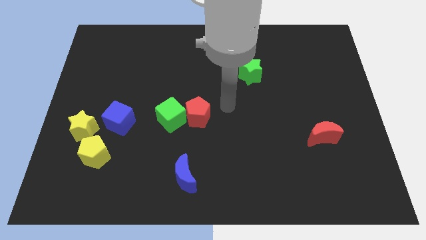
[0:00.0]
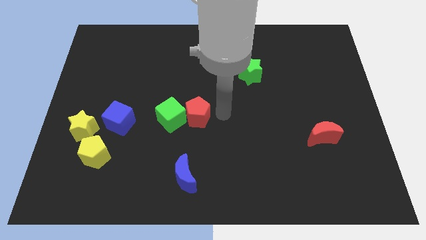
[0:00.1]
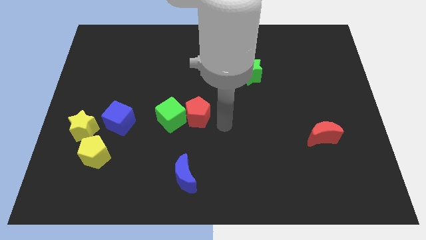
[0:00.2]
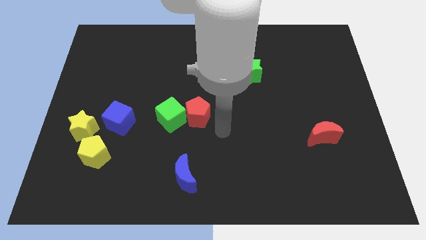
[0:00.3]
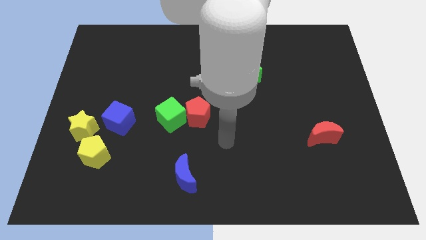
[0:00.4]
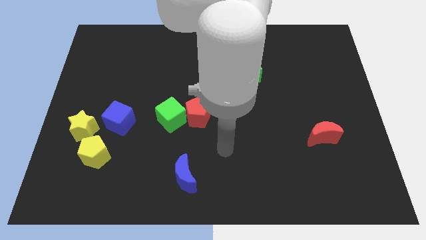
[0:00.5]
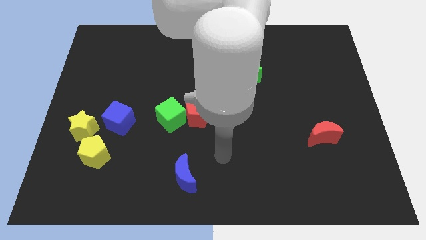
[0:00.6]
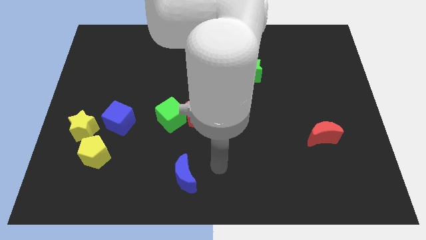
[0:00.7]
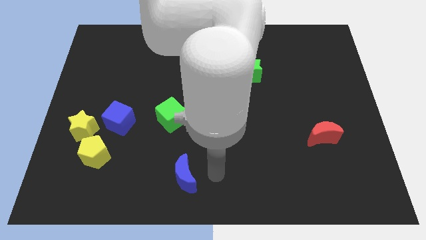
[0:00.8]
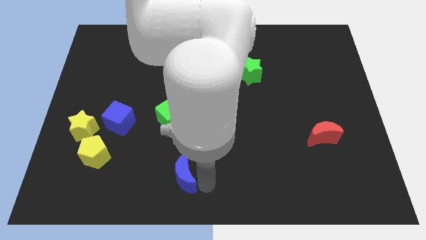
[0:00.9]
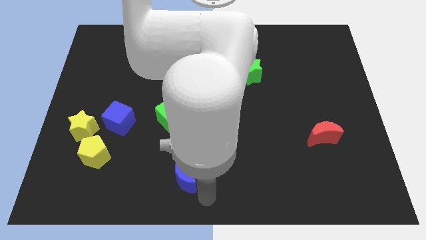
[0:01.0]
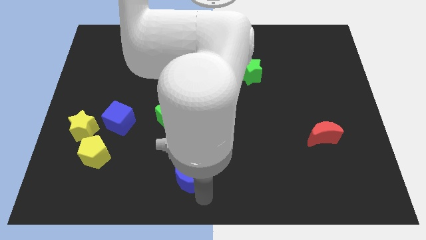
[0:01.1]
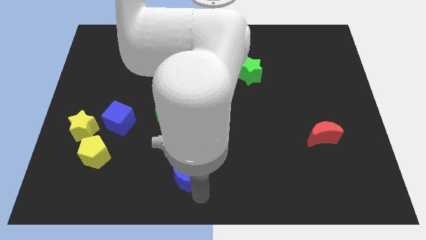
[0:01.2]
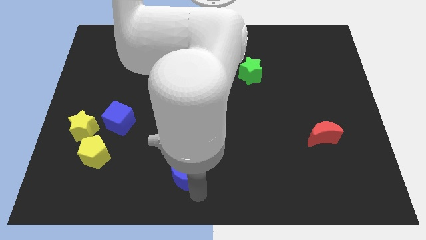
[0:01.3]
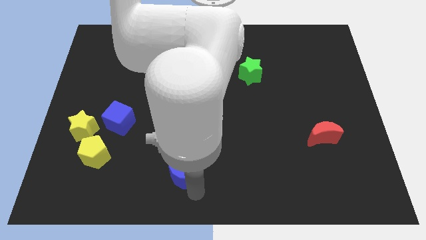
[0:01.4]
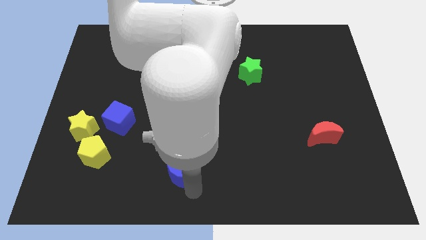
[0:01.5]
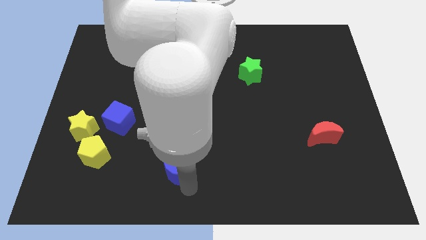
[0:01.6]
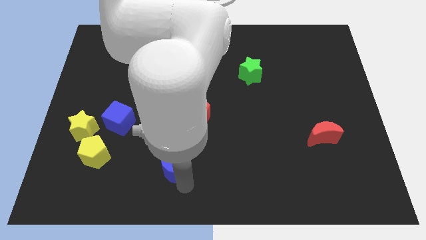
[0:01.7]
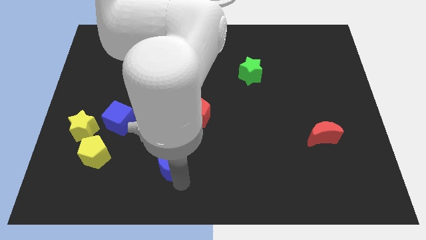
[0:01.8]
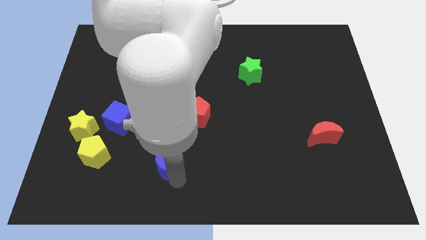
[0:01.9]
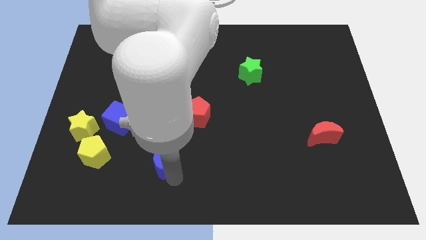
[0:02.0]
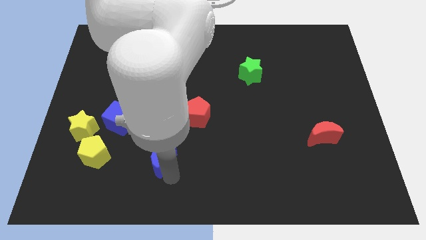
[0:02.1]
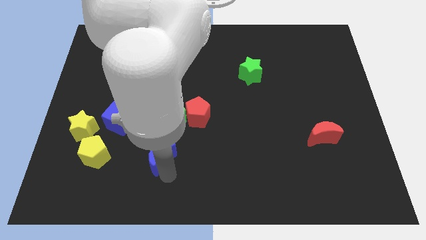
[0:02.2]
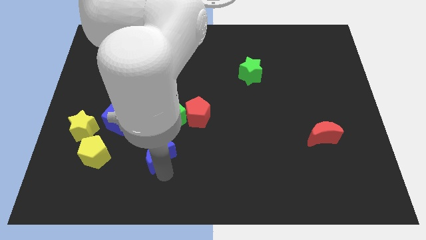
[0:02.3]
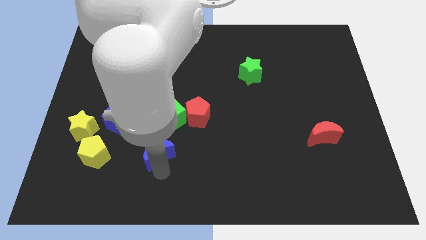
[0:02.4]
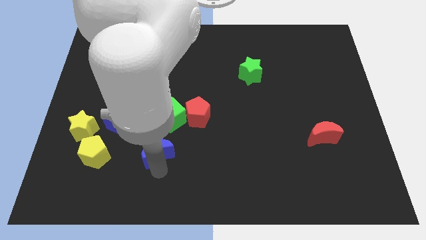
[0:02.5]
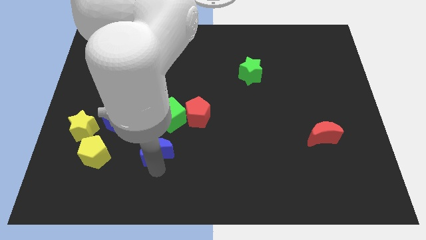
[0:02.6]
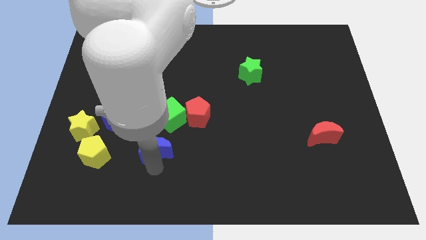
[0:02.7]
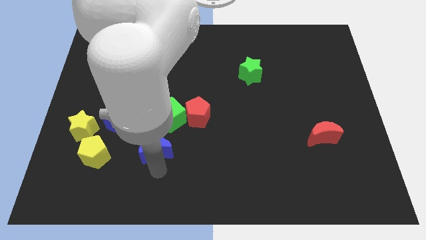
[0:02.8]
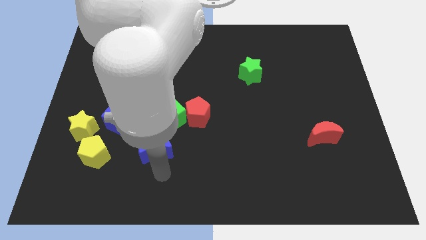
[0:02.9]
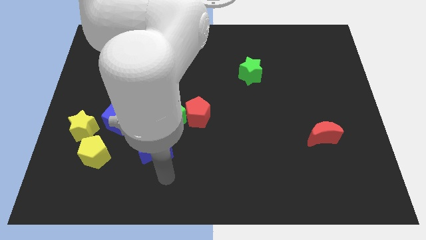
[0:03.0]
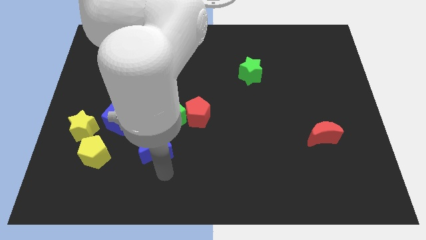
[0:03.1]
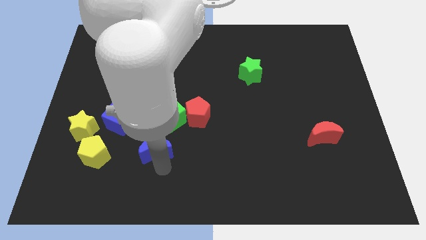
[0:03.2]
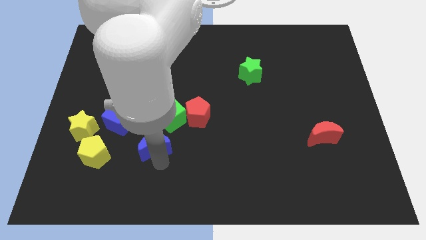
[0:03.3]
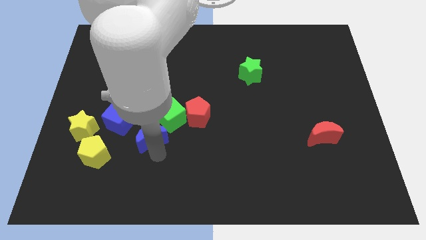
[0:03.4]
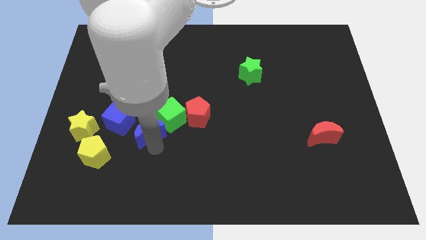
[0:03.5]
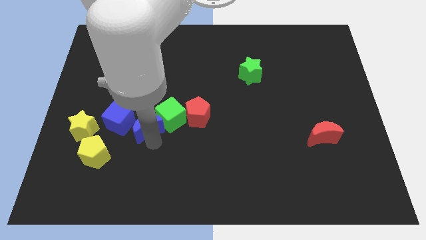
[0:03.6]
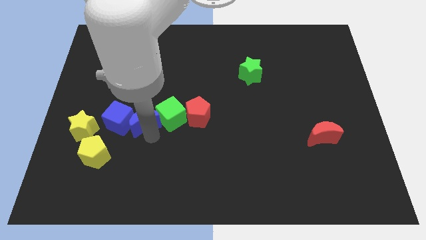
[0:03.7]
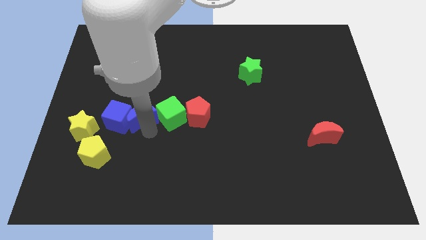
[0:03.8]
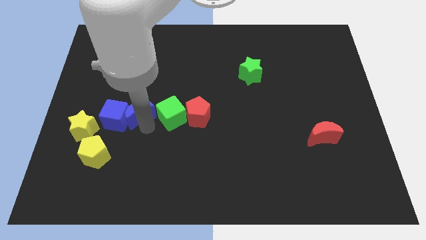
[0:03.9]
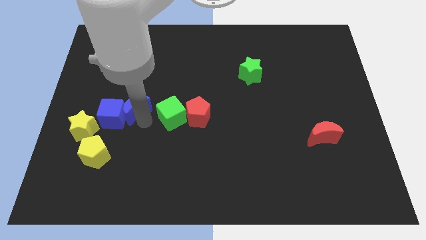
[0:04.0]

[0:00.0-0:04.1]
push the blue moon upwards and then left

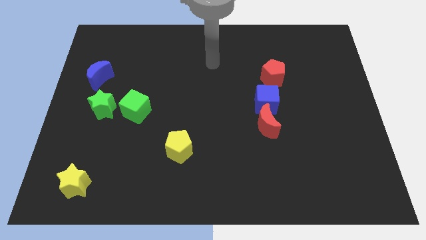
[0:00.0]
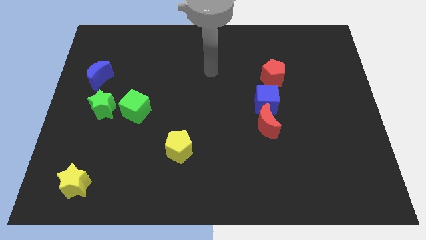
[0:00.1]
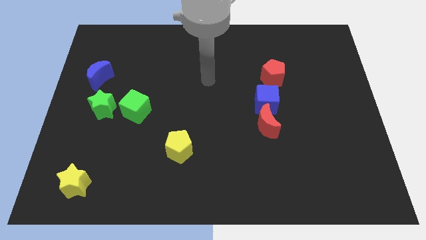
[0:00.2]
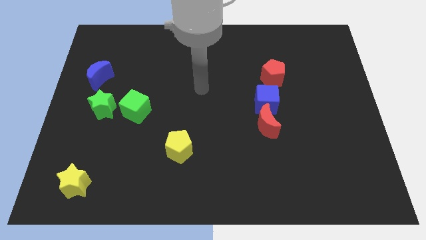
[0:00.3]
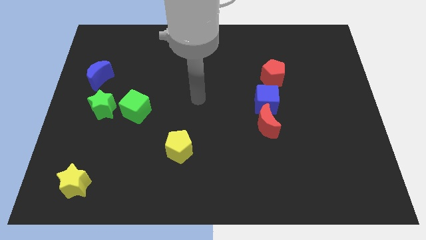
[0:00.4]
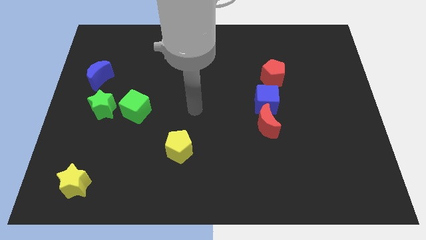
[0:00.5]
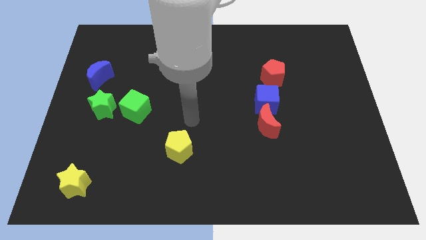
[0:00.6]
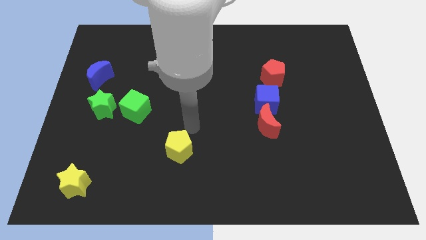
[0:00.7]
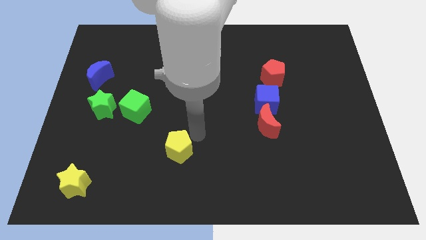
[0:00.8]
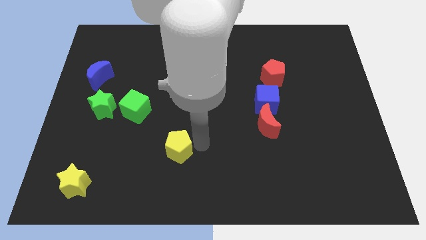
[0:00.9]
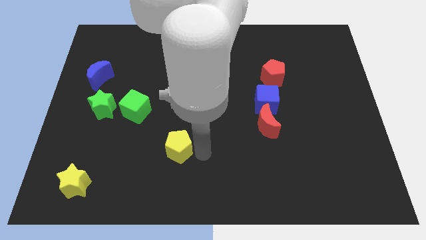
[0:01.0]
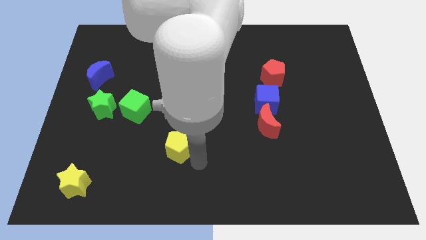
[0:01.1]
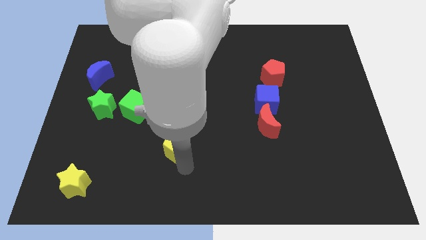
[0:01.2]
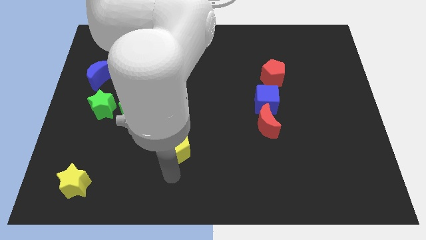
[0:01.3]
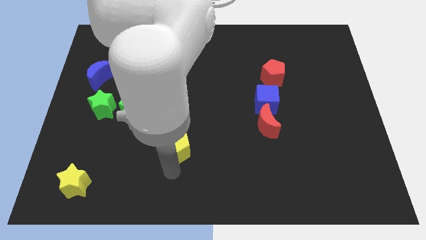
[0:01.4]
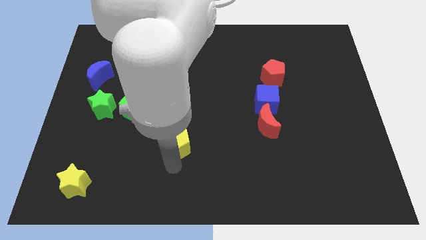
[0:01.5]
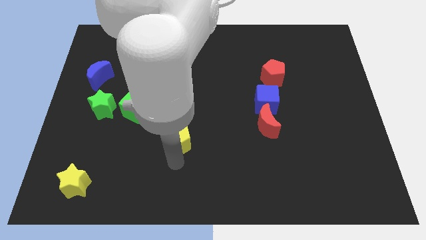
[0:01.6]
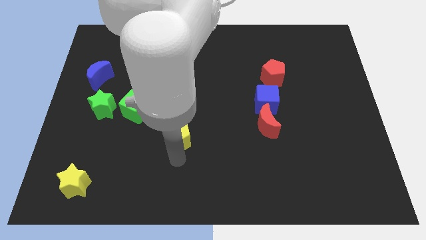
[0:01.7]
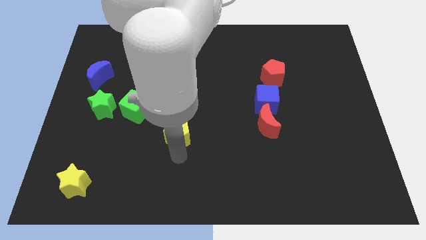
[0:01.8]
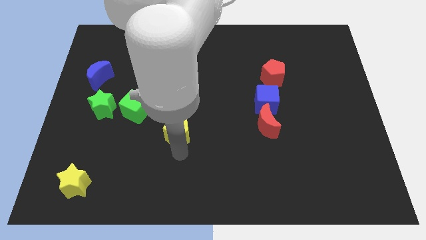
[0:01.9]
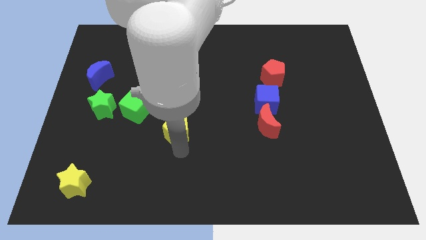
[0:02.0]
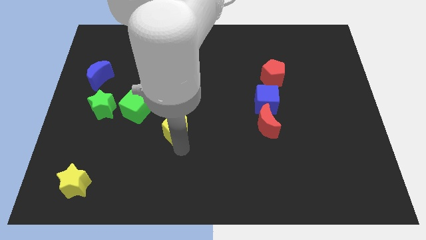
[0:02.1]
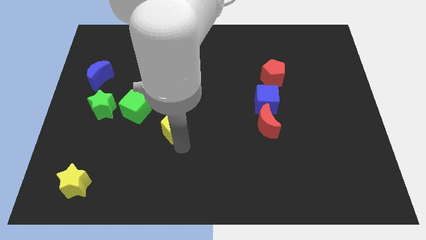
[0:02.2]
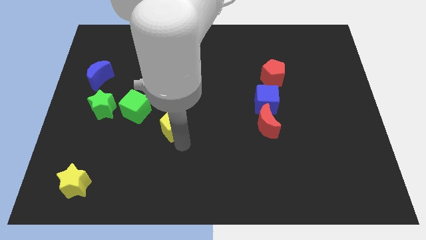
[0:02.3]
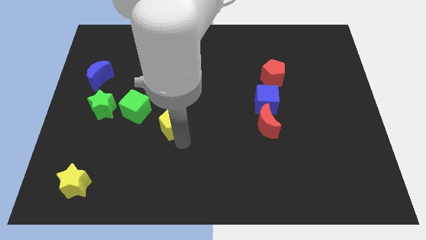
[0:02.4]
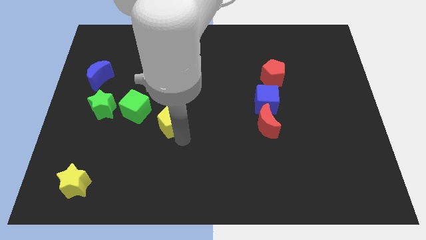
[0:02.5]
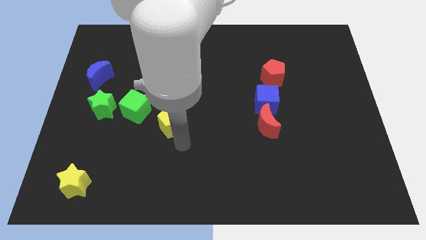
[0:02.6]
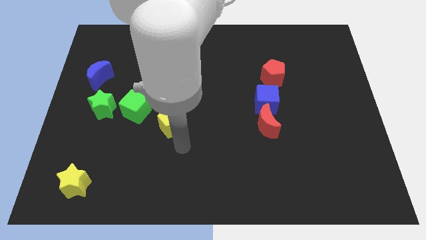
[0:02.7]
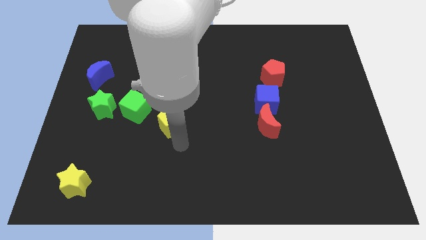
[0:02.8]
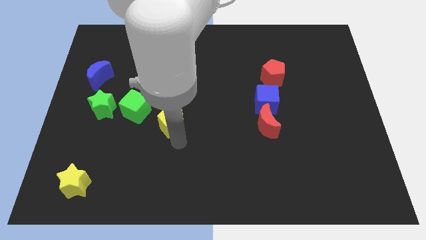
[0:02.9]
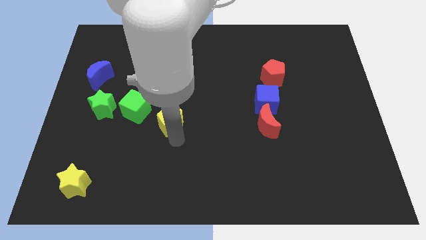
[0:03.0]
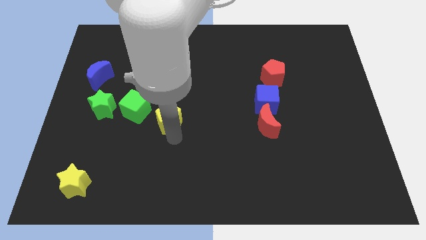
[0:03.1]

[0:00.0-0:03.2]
slightly push the yellow pentagon up and to the left diagonally
